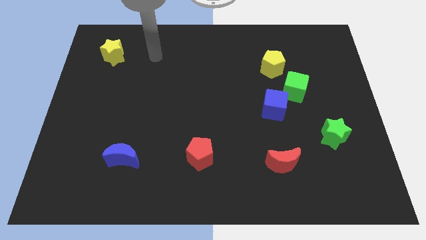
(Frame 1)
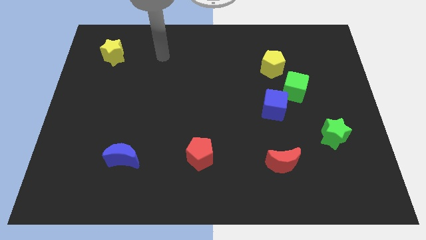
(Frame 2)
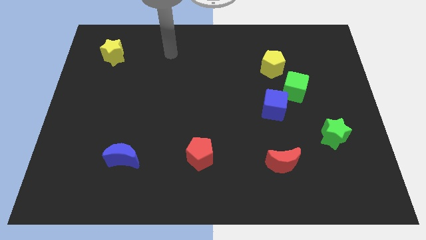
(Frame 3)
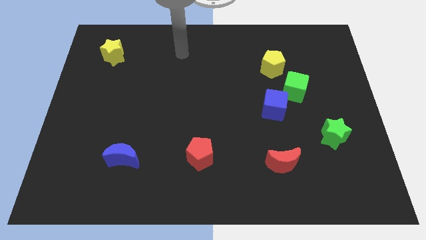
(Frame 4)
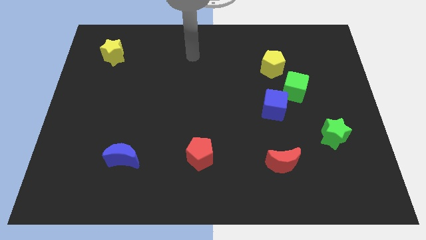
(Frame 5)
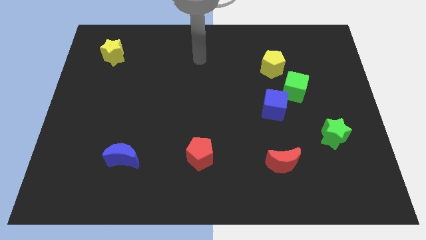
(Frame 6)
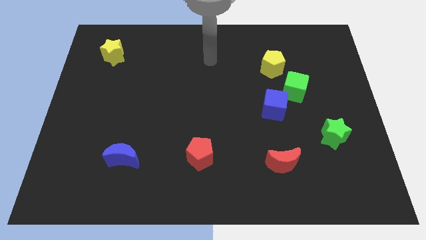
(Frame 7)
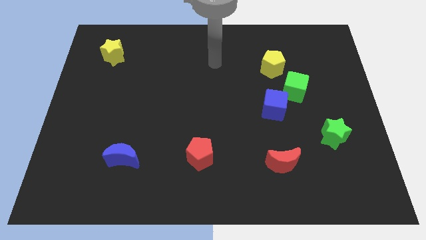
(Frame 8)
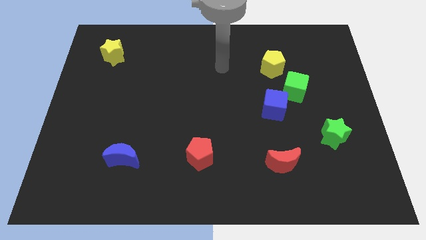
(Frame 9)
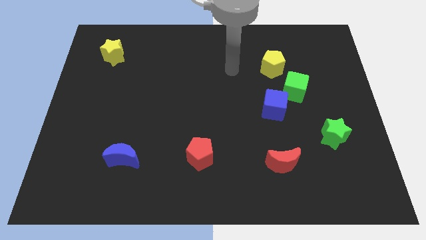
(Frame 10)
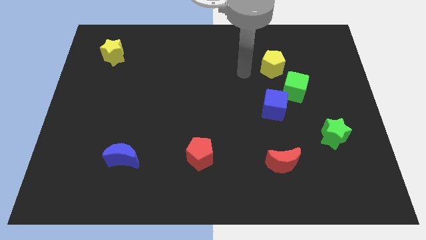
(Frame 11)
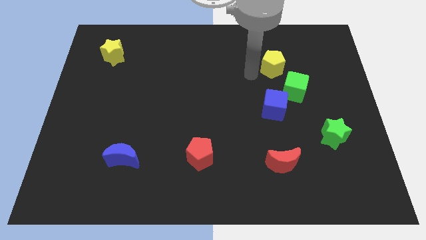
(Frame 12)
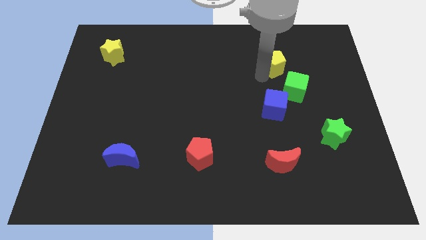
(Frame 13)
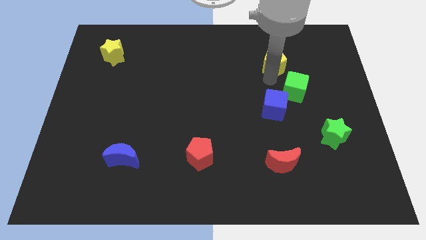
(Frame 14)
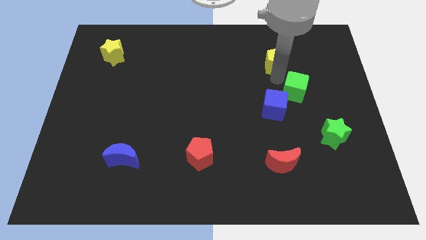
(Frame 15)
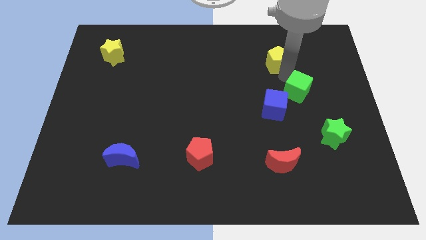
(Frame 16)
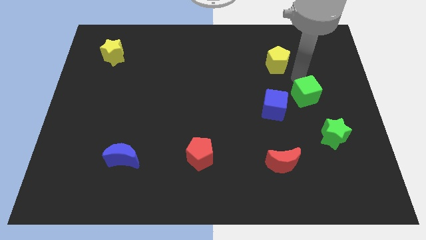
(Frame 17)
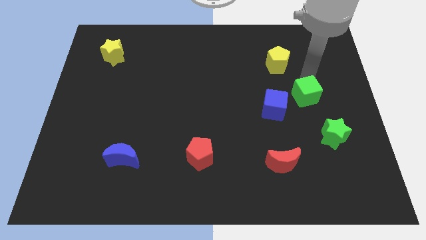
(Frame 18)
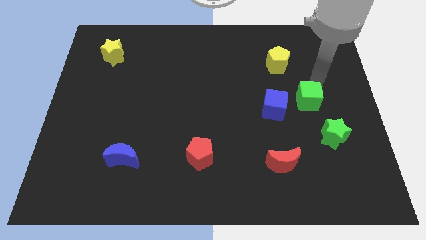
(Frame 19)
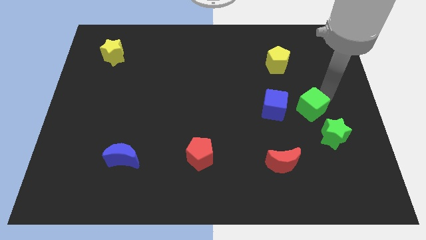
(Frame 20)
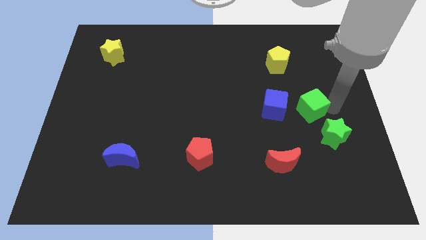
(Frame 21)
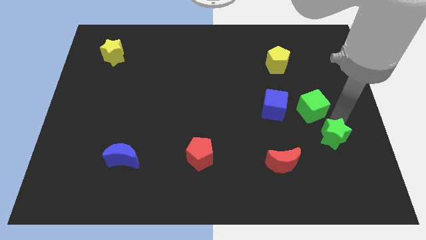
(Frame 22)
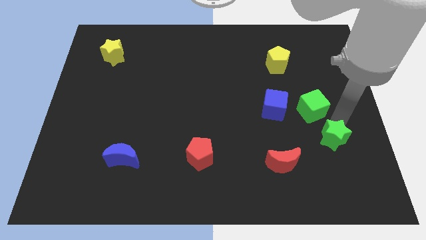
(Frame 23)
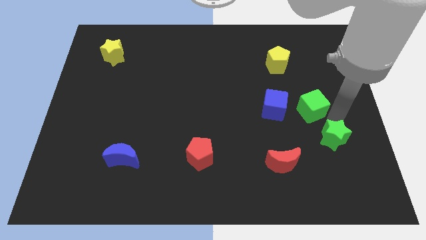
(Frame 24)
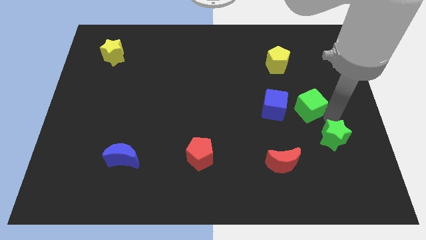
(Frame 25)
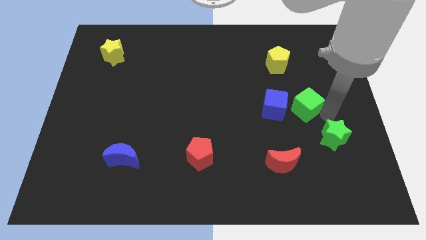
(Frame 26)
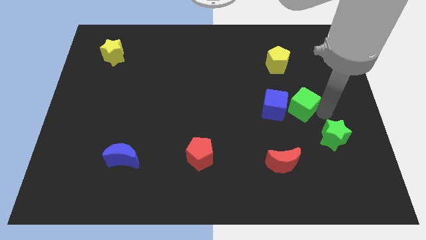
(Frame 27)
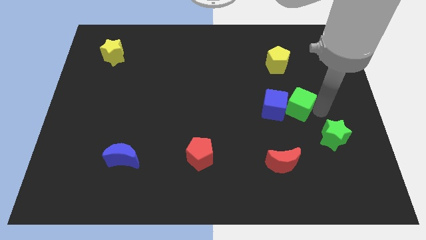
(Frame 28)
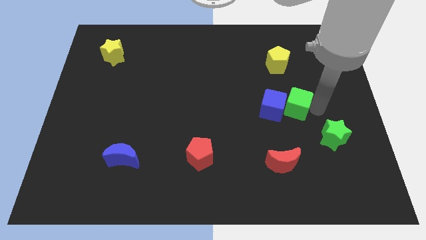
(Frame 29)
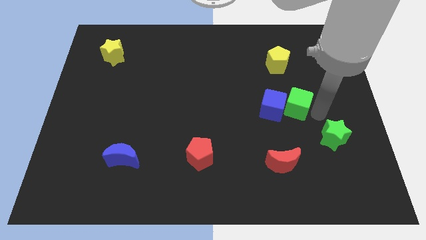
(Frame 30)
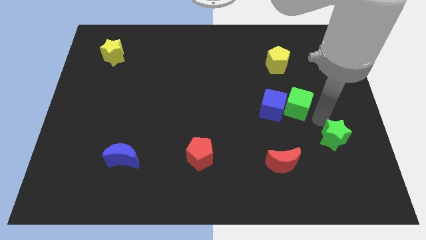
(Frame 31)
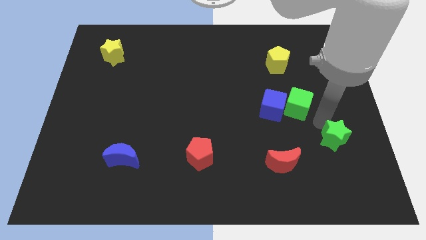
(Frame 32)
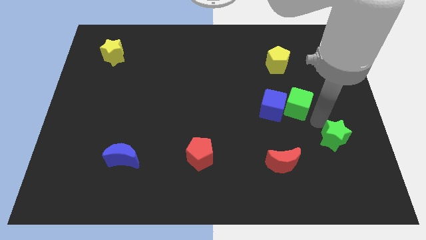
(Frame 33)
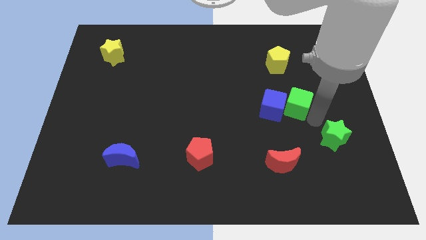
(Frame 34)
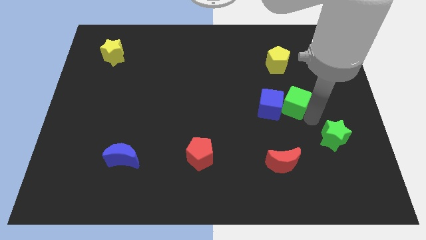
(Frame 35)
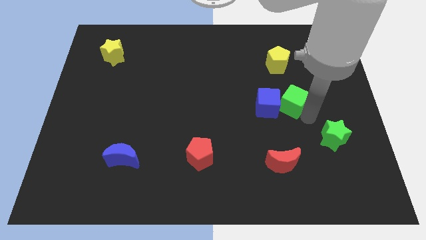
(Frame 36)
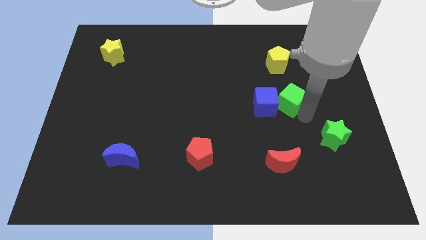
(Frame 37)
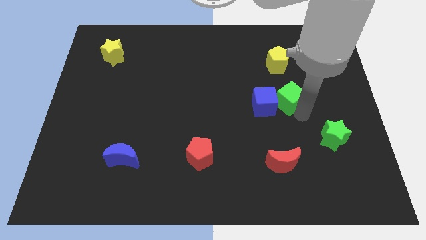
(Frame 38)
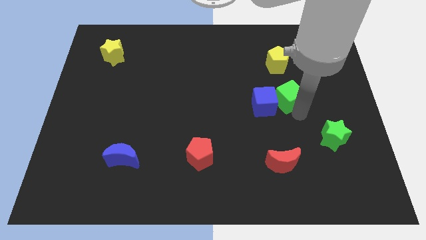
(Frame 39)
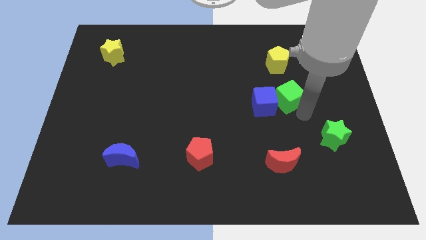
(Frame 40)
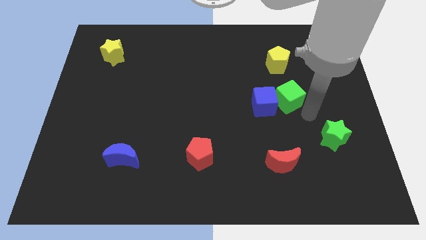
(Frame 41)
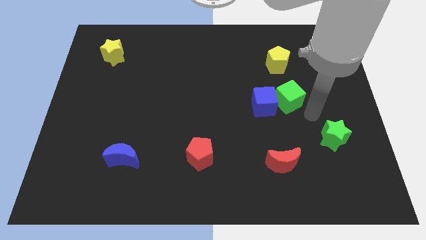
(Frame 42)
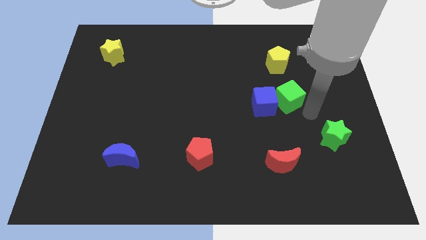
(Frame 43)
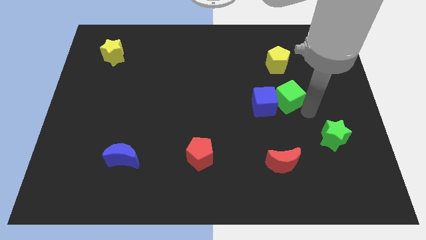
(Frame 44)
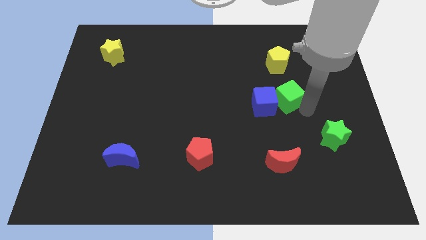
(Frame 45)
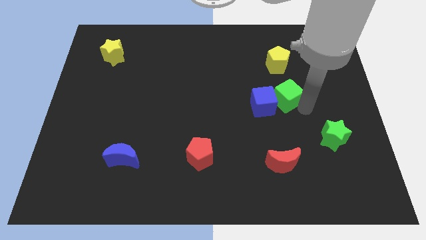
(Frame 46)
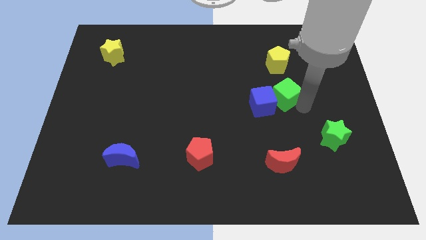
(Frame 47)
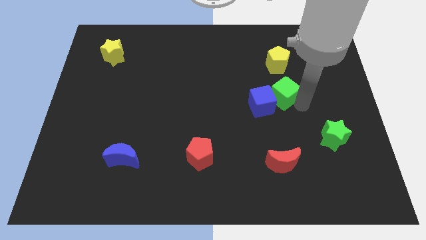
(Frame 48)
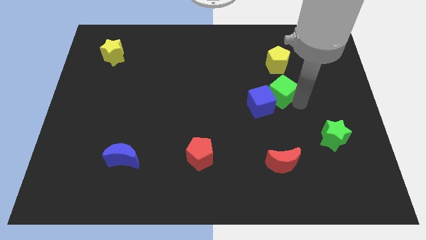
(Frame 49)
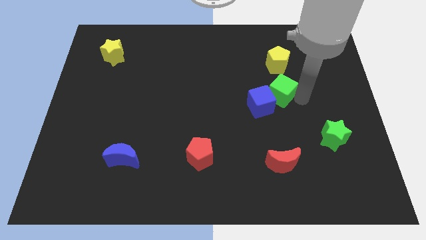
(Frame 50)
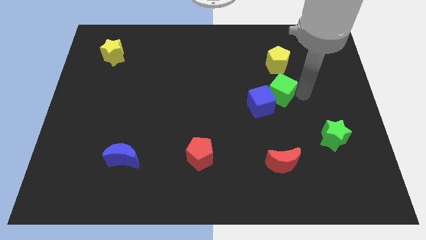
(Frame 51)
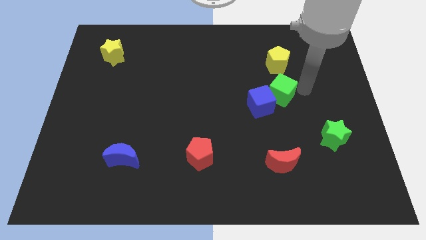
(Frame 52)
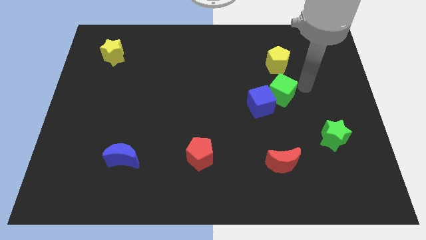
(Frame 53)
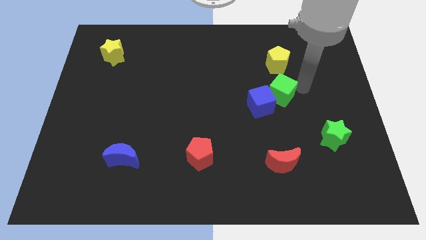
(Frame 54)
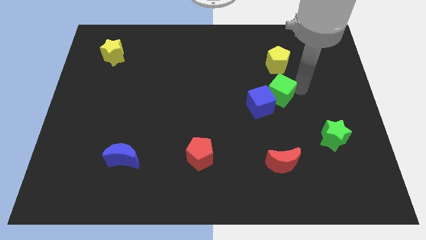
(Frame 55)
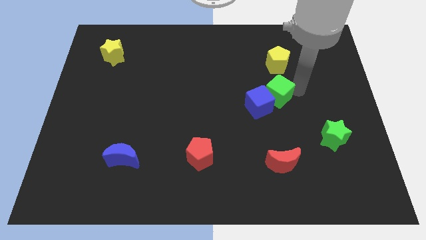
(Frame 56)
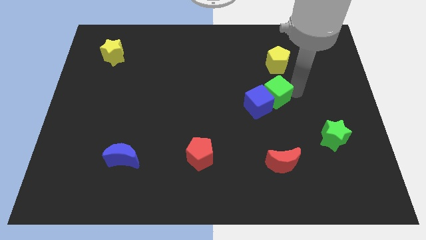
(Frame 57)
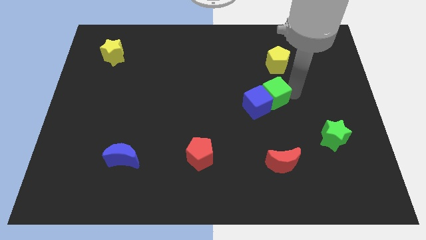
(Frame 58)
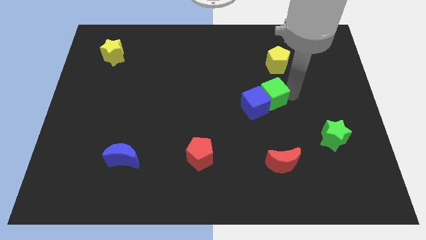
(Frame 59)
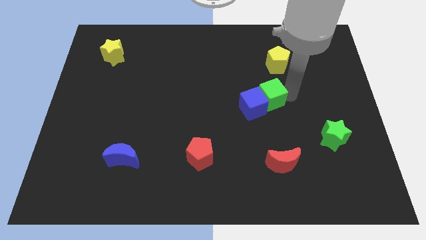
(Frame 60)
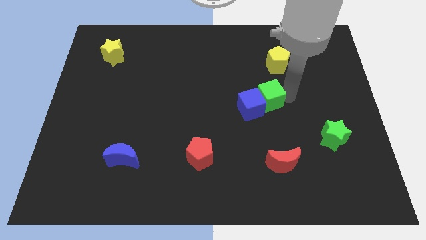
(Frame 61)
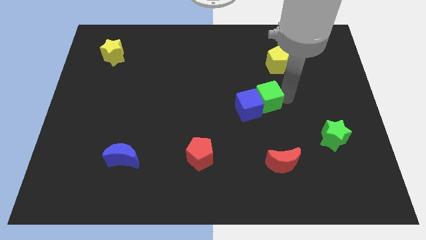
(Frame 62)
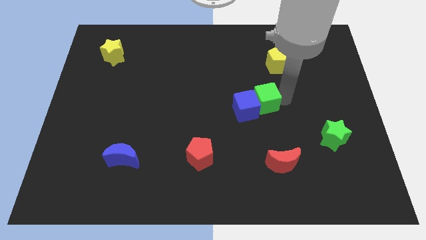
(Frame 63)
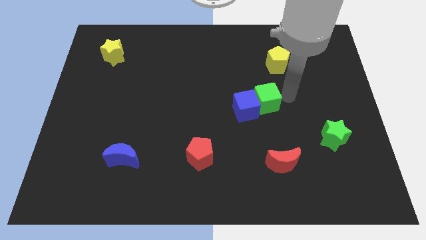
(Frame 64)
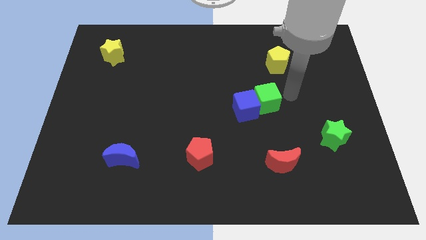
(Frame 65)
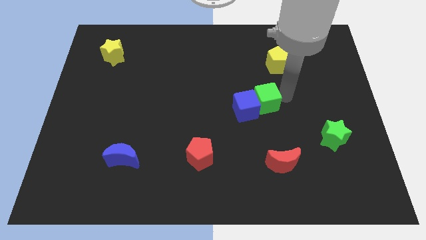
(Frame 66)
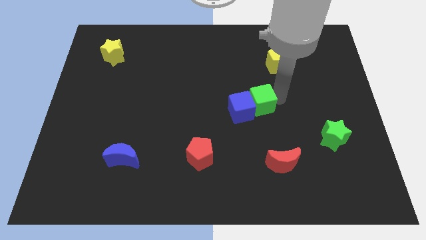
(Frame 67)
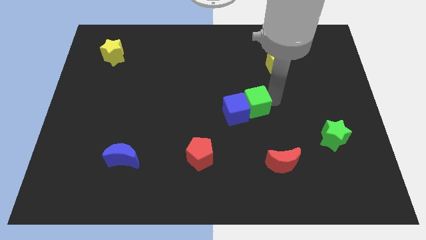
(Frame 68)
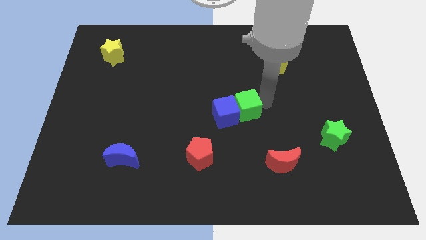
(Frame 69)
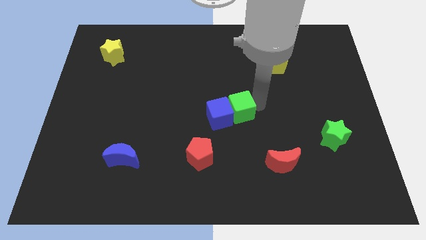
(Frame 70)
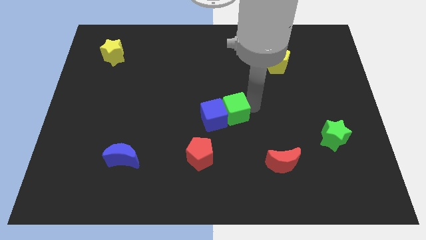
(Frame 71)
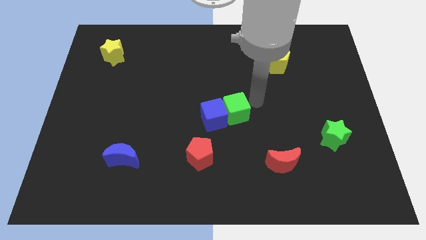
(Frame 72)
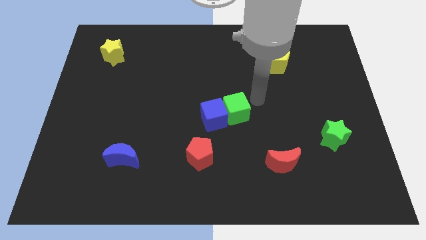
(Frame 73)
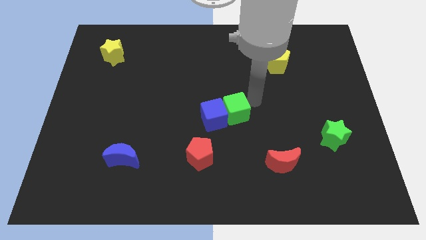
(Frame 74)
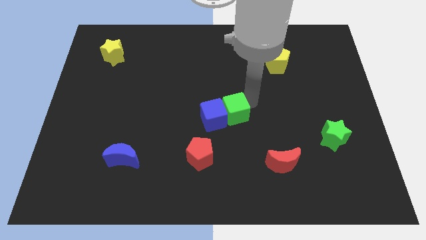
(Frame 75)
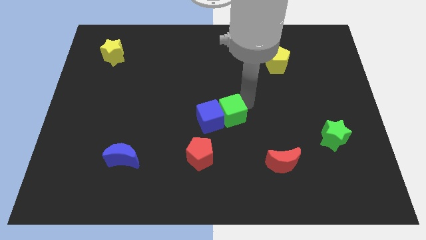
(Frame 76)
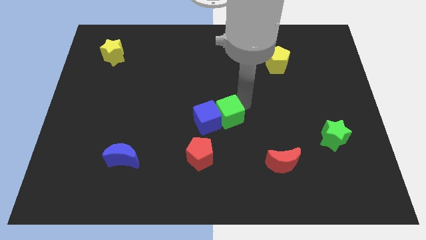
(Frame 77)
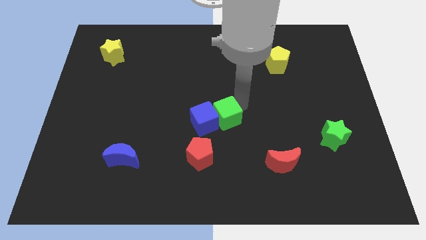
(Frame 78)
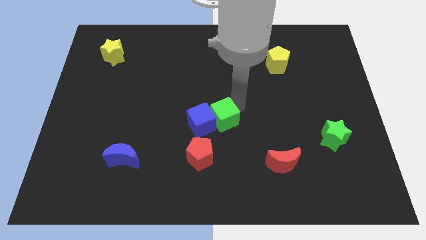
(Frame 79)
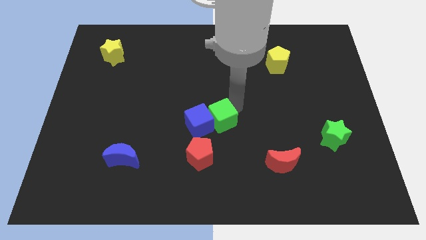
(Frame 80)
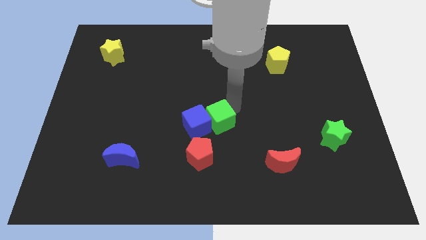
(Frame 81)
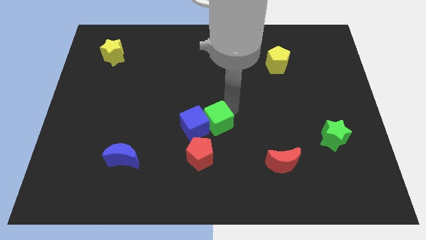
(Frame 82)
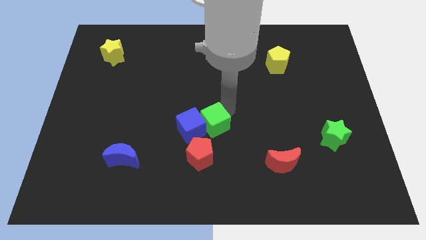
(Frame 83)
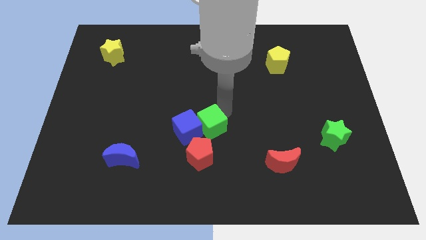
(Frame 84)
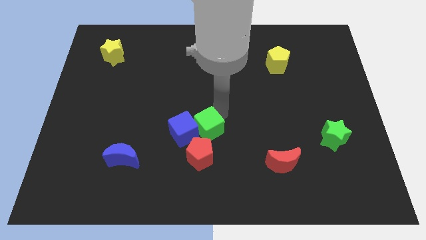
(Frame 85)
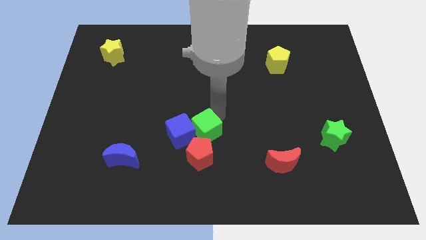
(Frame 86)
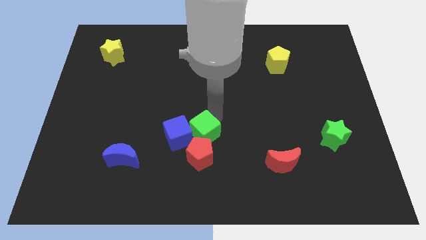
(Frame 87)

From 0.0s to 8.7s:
put the green cube close to the red pentagon
